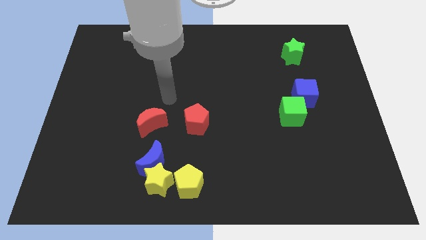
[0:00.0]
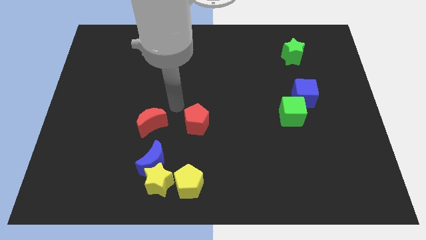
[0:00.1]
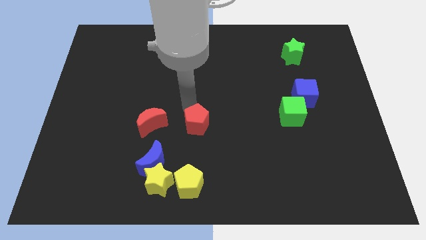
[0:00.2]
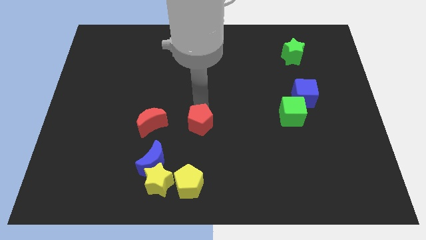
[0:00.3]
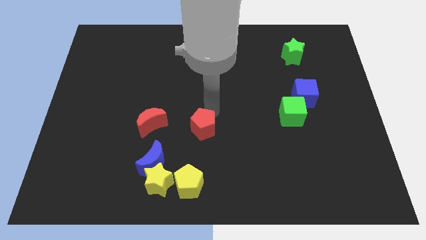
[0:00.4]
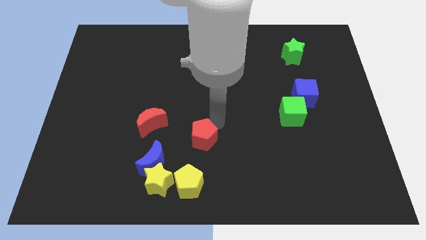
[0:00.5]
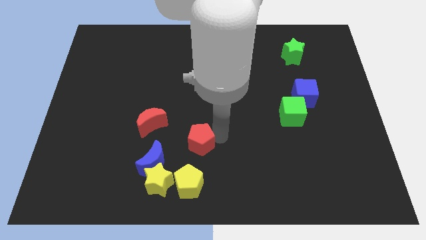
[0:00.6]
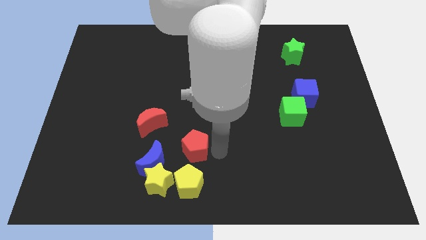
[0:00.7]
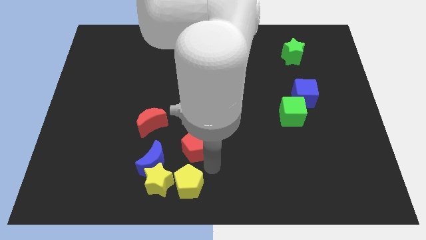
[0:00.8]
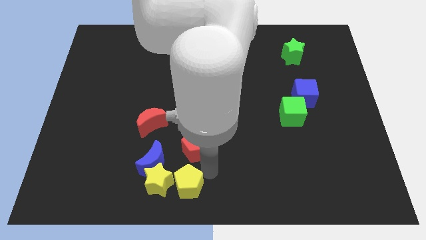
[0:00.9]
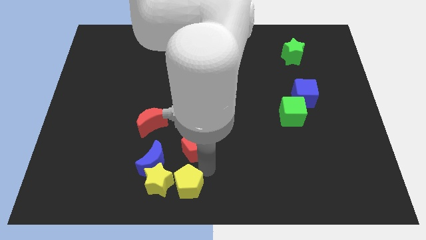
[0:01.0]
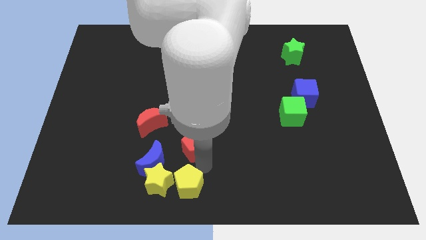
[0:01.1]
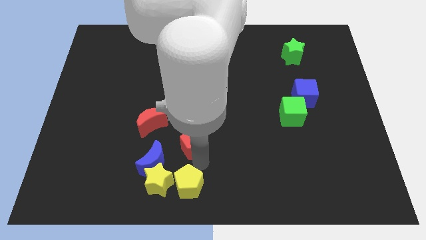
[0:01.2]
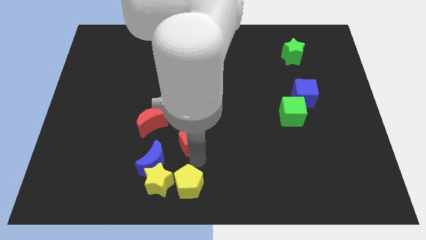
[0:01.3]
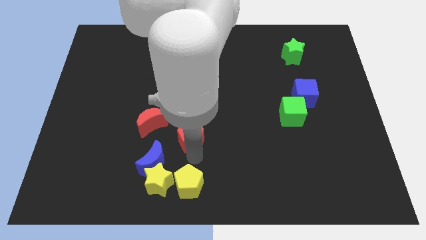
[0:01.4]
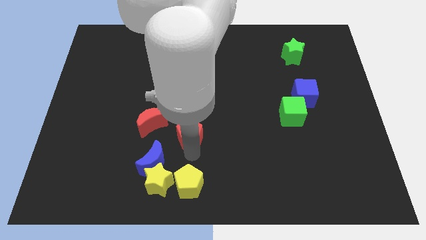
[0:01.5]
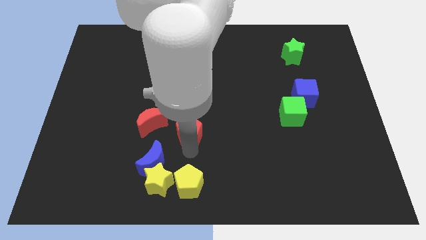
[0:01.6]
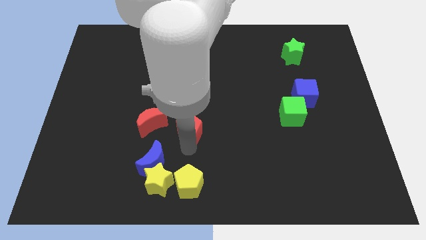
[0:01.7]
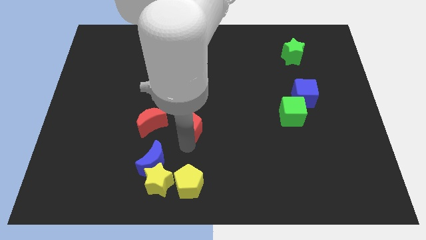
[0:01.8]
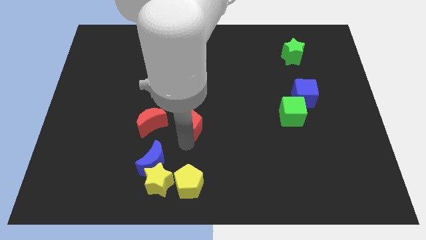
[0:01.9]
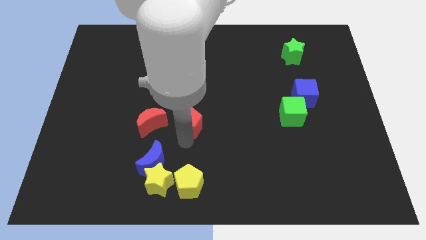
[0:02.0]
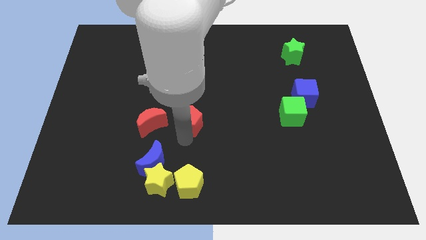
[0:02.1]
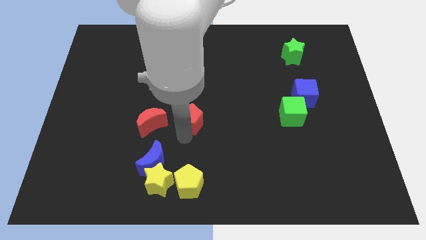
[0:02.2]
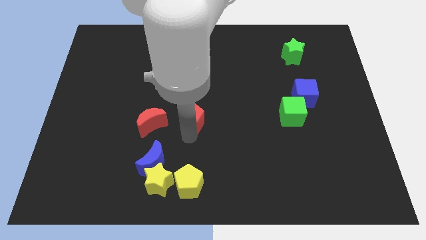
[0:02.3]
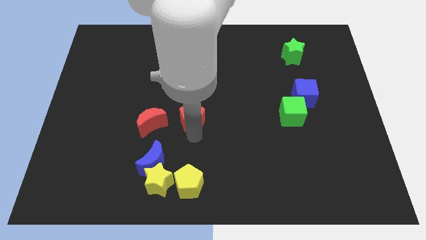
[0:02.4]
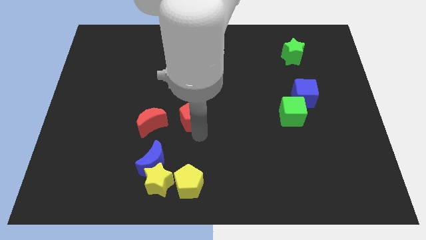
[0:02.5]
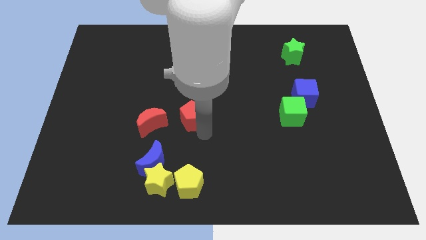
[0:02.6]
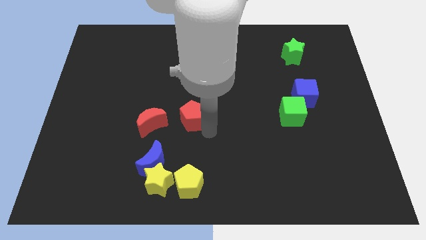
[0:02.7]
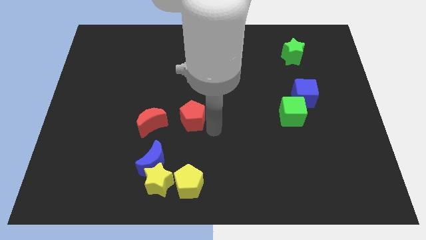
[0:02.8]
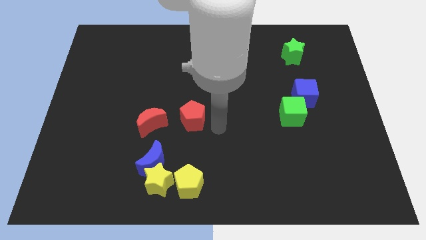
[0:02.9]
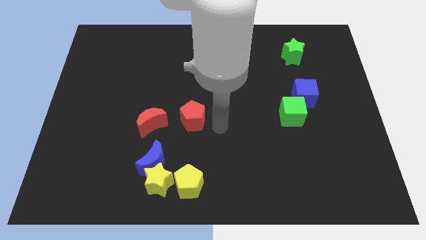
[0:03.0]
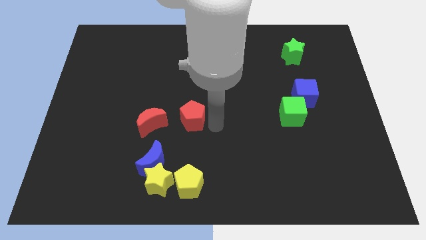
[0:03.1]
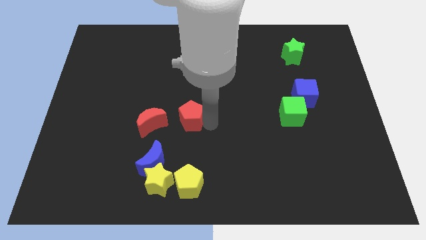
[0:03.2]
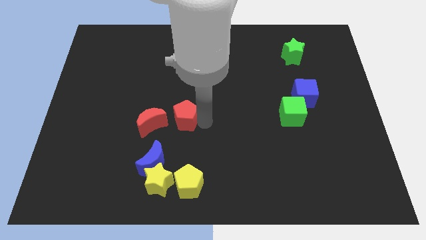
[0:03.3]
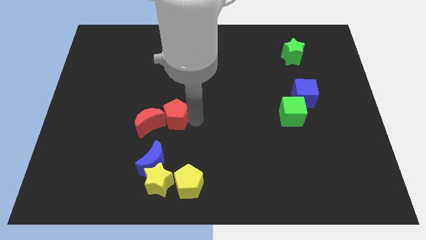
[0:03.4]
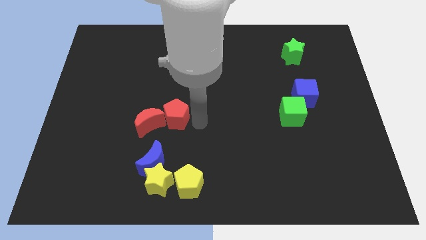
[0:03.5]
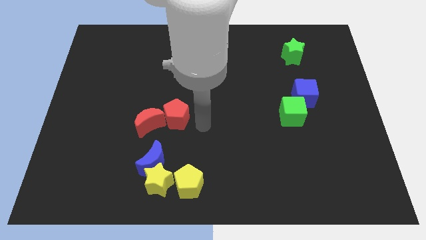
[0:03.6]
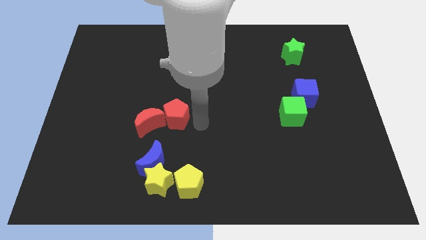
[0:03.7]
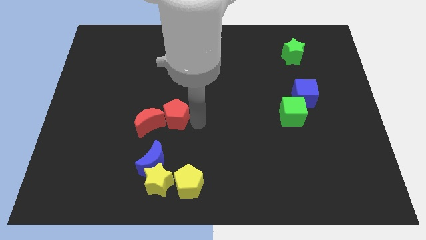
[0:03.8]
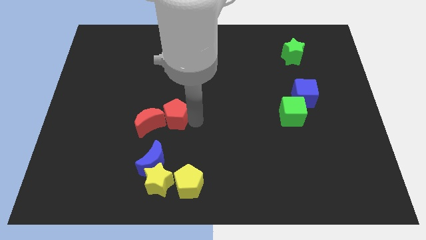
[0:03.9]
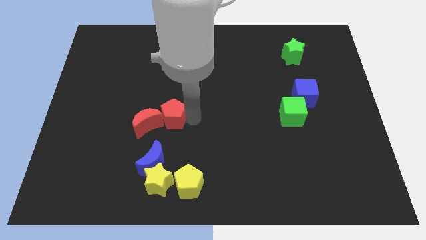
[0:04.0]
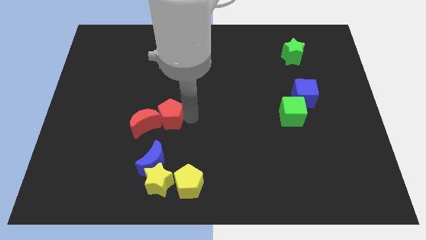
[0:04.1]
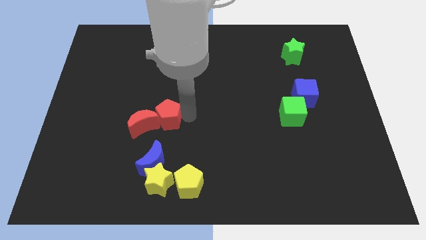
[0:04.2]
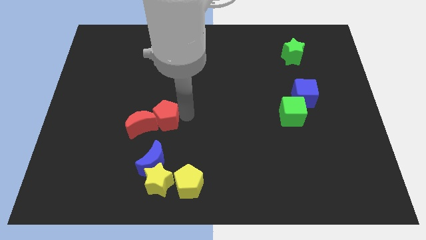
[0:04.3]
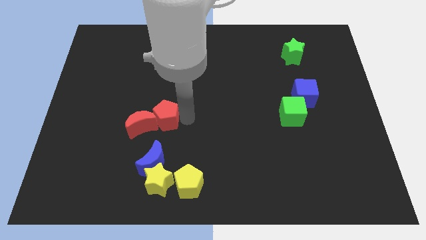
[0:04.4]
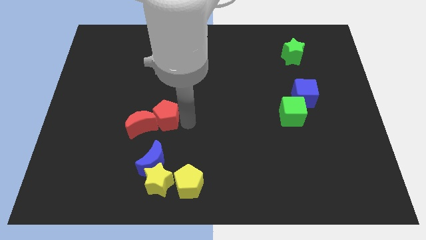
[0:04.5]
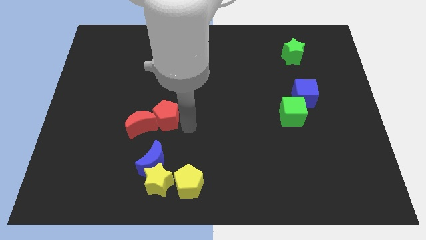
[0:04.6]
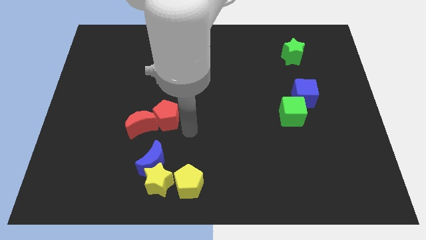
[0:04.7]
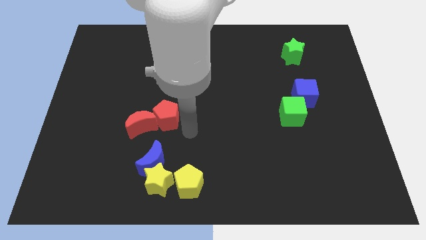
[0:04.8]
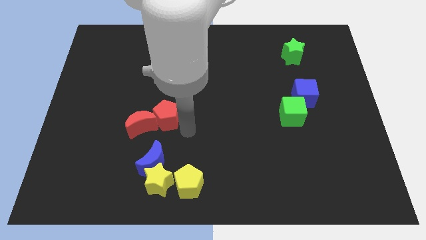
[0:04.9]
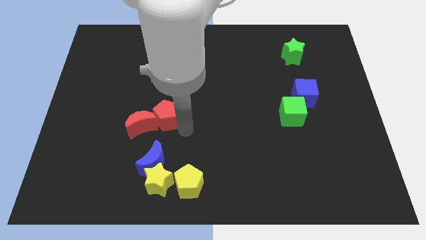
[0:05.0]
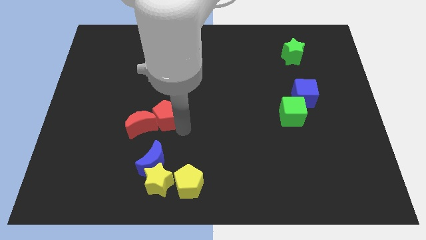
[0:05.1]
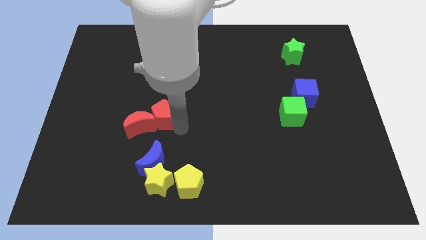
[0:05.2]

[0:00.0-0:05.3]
push the red pentagon a little bit to the left

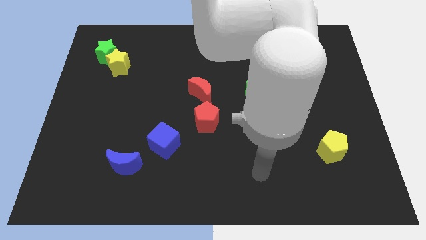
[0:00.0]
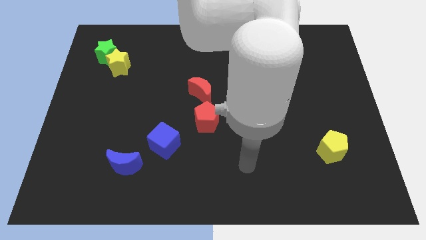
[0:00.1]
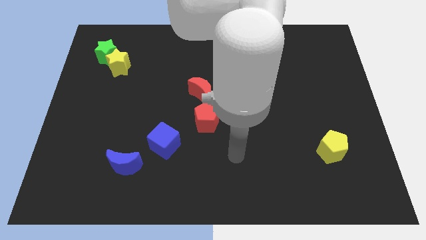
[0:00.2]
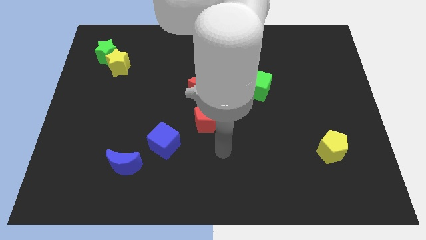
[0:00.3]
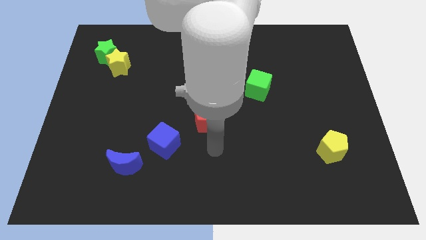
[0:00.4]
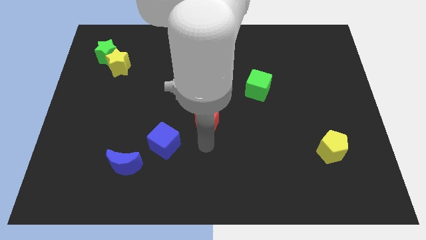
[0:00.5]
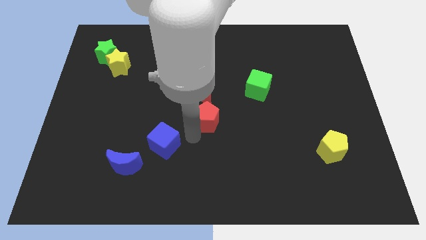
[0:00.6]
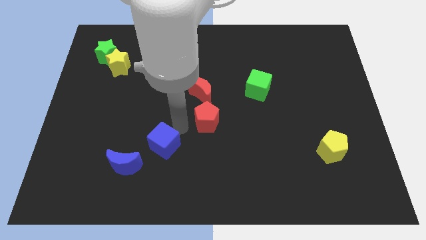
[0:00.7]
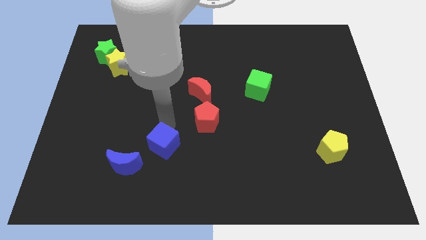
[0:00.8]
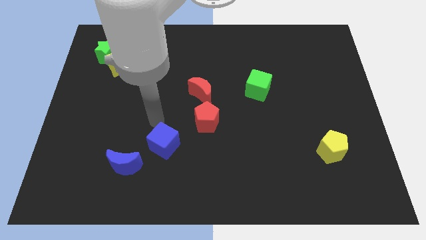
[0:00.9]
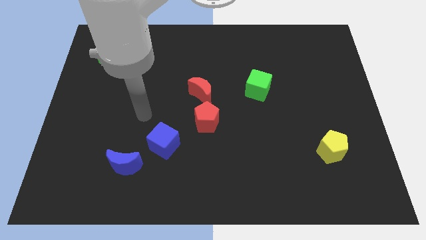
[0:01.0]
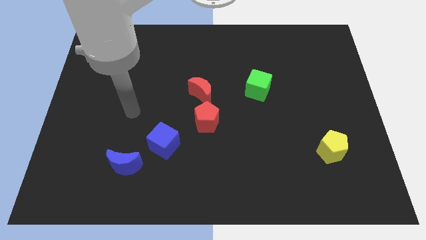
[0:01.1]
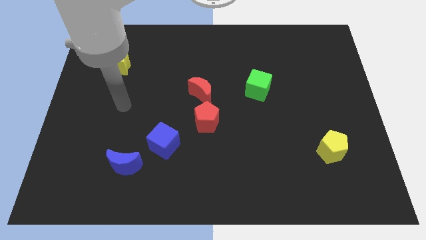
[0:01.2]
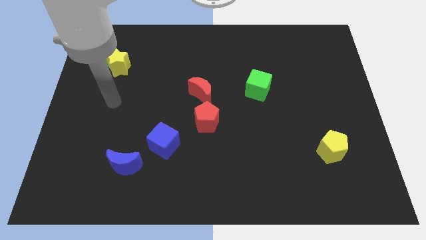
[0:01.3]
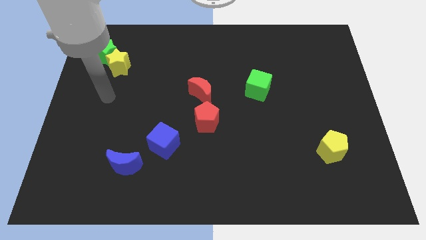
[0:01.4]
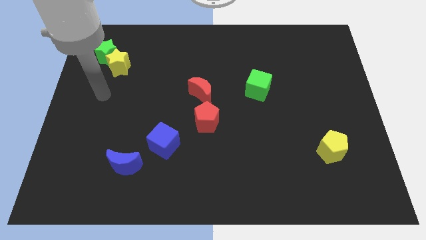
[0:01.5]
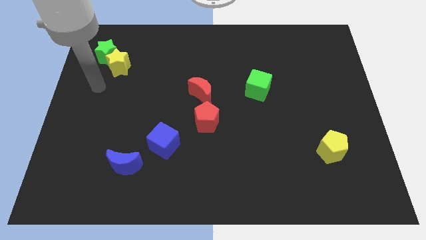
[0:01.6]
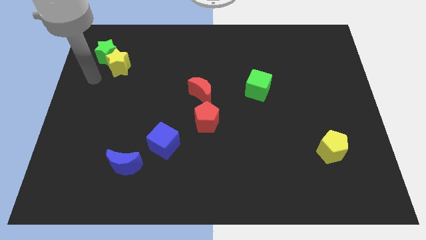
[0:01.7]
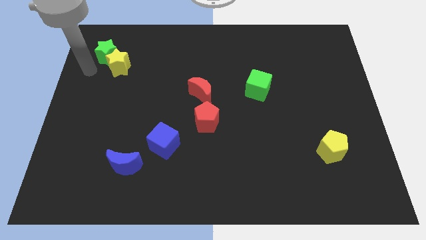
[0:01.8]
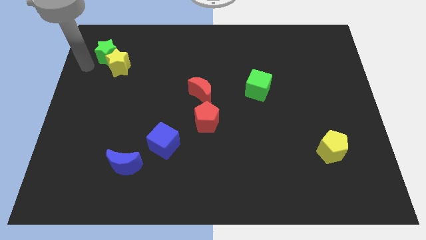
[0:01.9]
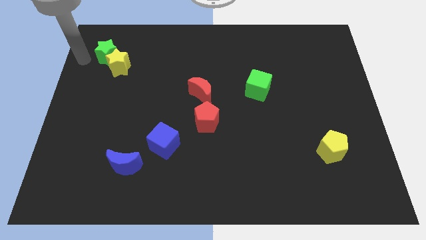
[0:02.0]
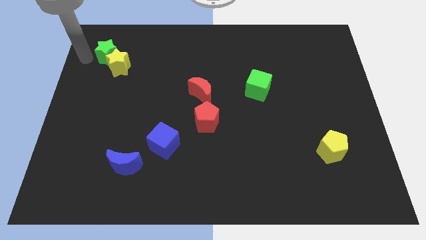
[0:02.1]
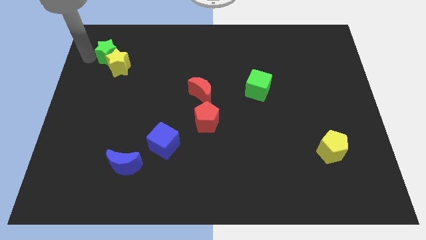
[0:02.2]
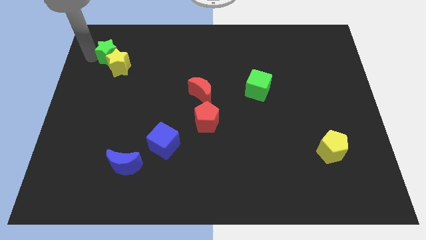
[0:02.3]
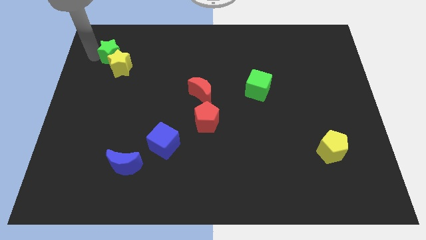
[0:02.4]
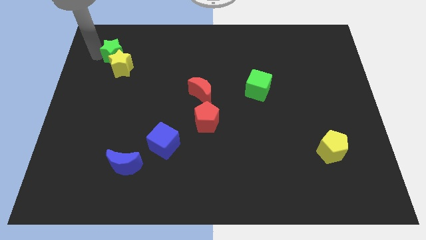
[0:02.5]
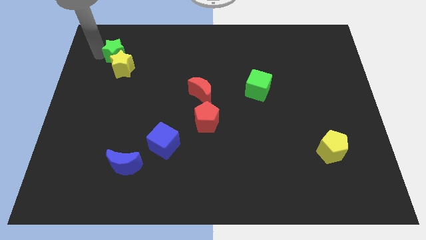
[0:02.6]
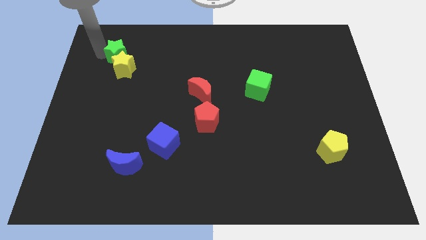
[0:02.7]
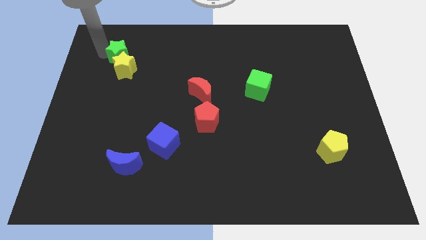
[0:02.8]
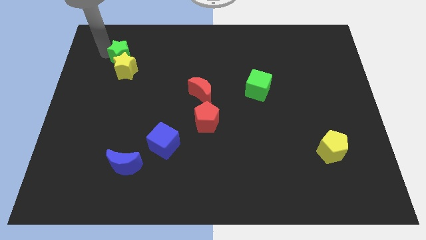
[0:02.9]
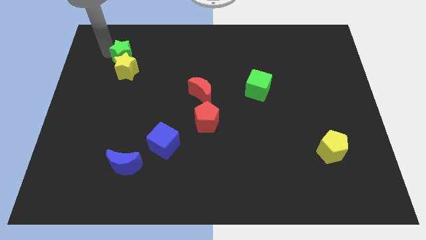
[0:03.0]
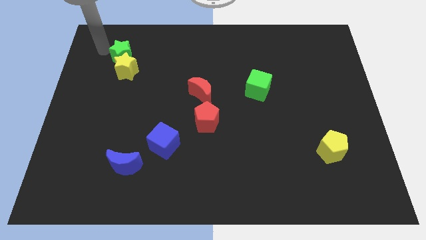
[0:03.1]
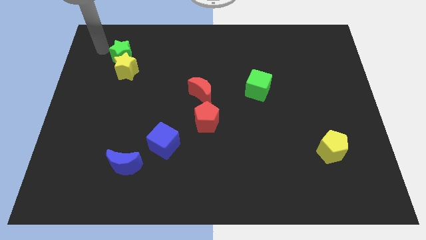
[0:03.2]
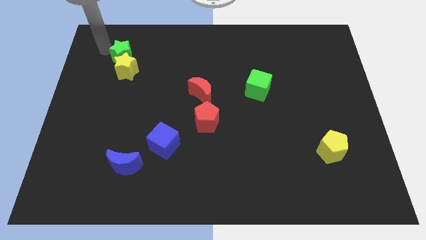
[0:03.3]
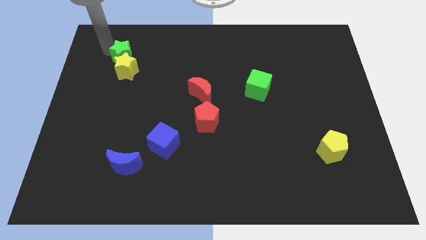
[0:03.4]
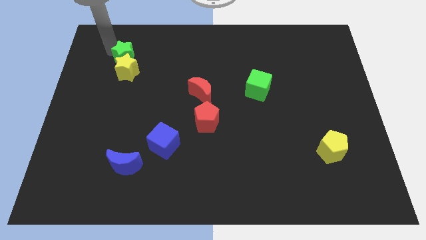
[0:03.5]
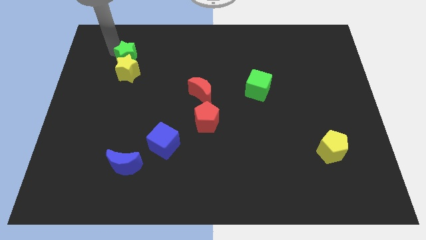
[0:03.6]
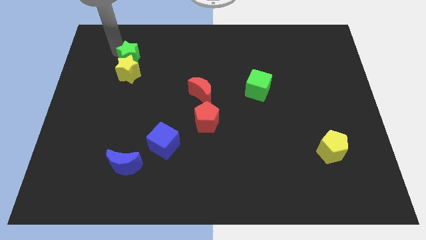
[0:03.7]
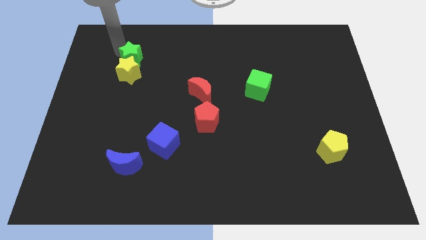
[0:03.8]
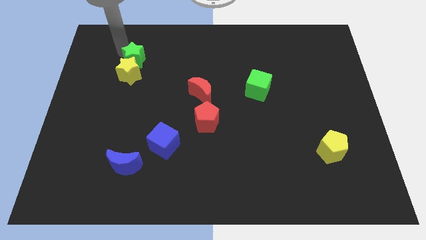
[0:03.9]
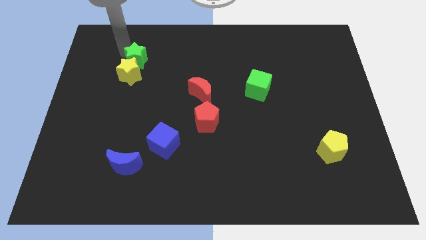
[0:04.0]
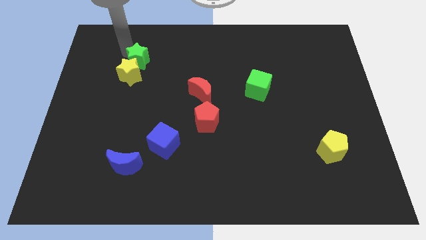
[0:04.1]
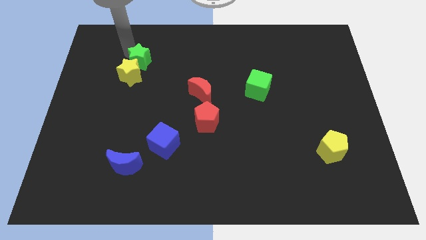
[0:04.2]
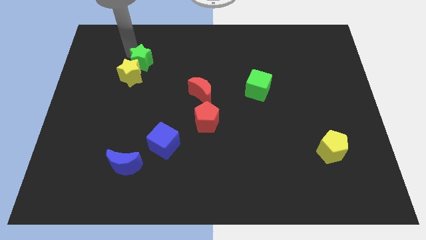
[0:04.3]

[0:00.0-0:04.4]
slide the green star down and to the right a little bit
